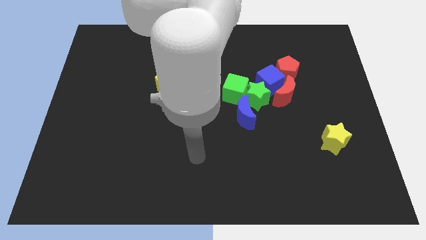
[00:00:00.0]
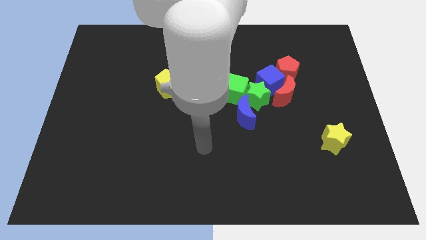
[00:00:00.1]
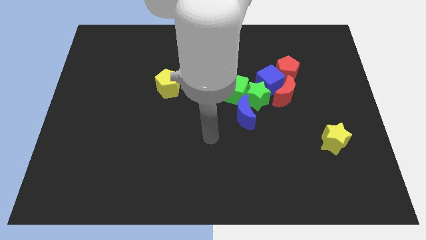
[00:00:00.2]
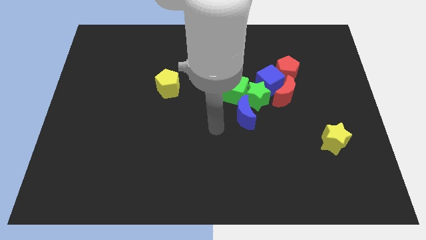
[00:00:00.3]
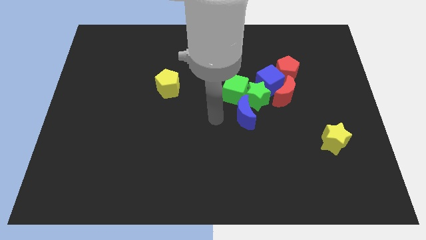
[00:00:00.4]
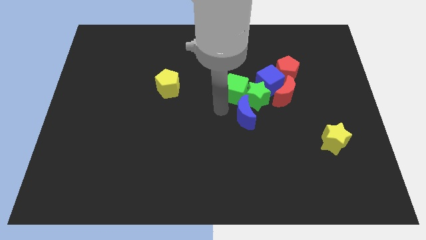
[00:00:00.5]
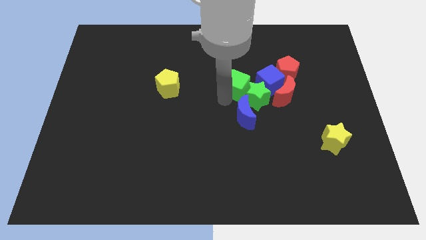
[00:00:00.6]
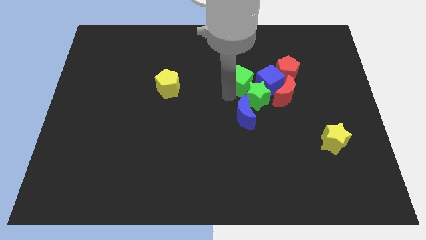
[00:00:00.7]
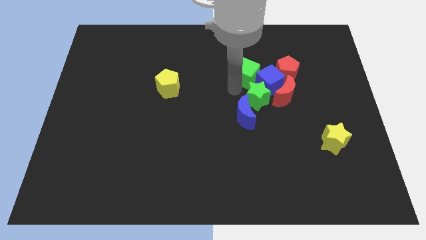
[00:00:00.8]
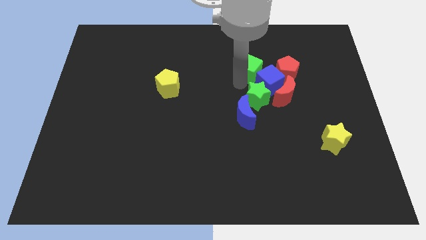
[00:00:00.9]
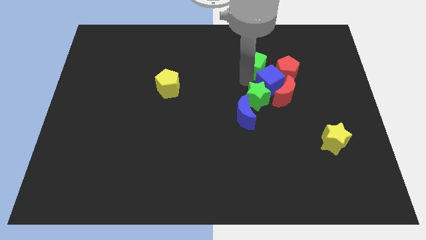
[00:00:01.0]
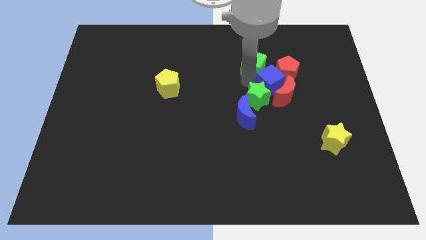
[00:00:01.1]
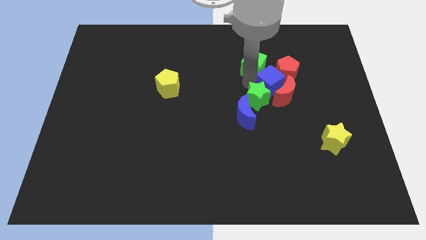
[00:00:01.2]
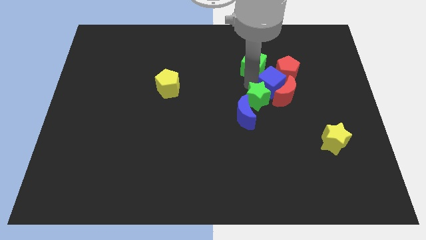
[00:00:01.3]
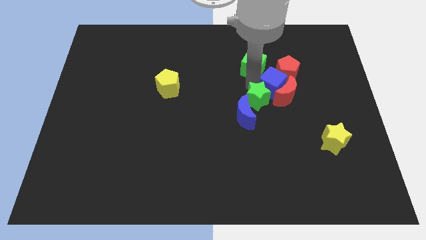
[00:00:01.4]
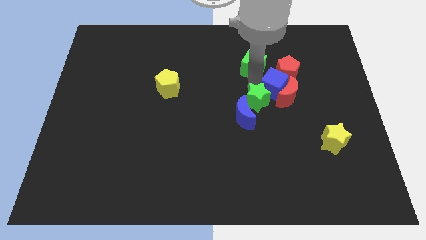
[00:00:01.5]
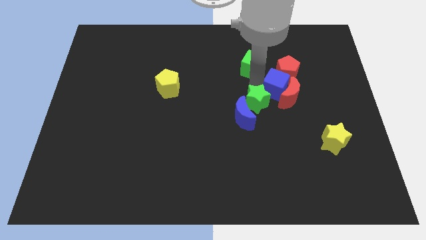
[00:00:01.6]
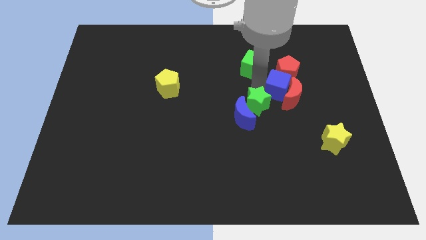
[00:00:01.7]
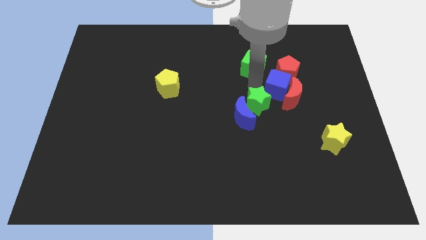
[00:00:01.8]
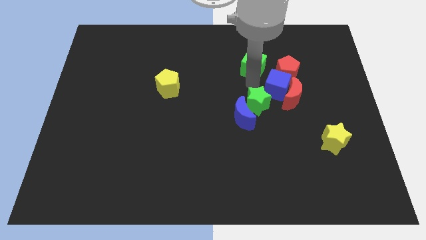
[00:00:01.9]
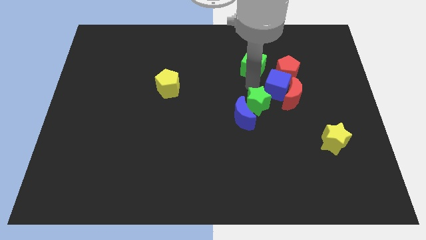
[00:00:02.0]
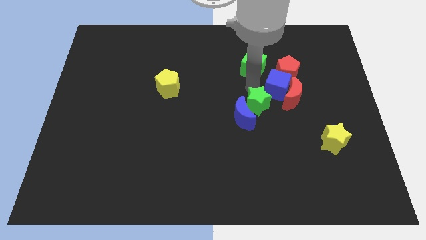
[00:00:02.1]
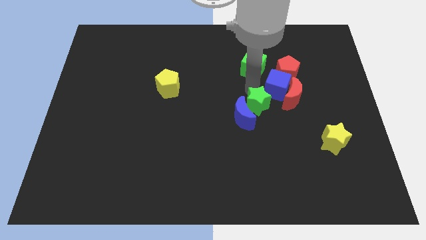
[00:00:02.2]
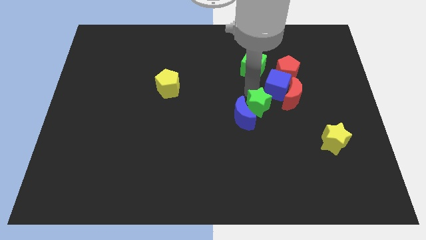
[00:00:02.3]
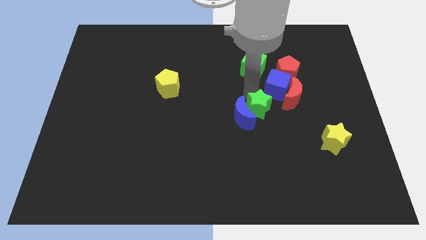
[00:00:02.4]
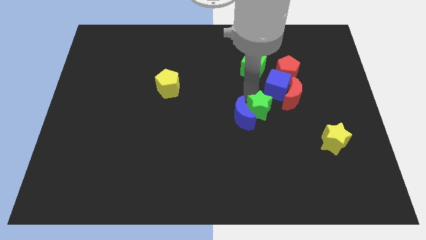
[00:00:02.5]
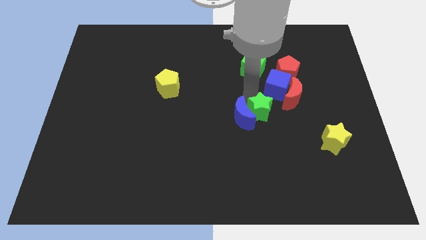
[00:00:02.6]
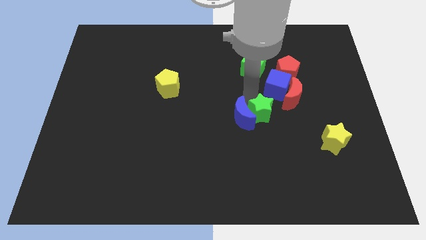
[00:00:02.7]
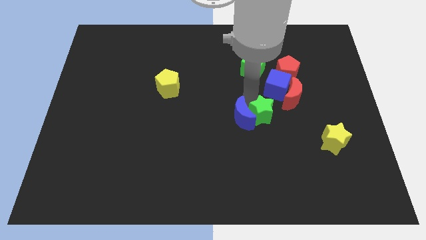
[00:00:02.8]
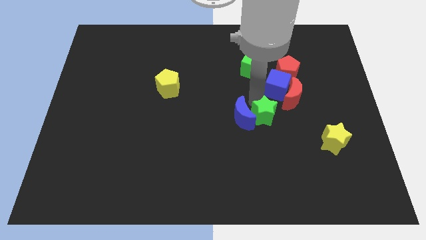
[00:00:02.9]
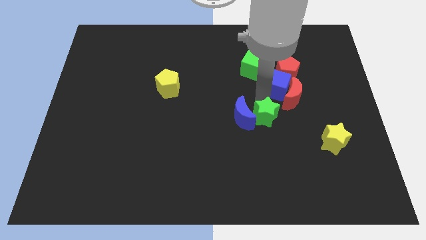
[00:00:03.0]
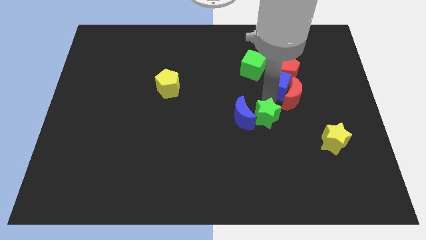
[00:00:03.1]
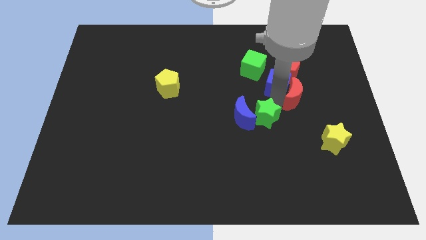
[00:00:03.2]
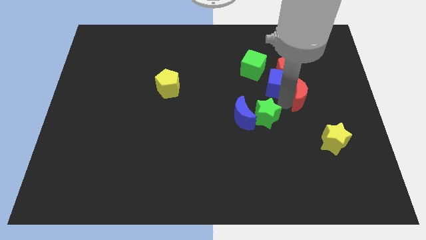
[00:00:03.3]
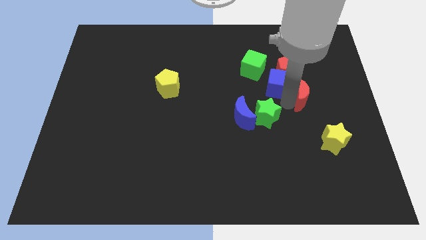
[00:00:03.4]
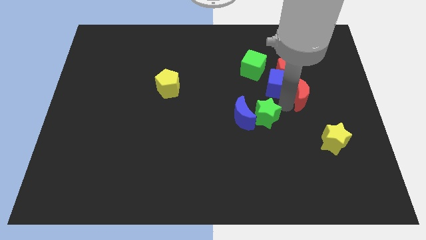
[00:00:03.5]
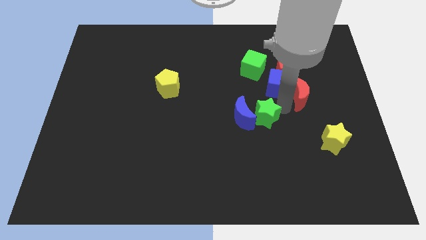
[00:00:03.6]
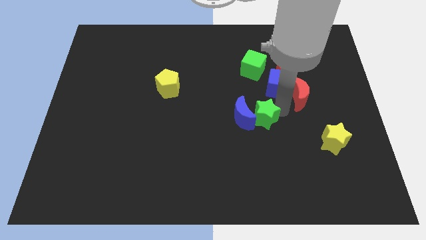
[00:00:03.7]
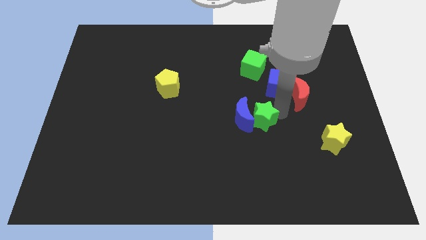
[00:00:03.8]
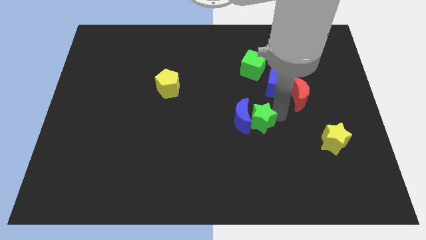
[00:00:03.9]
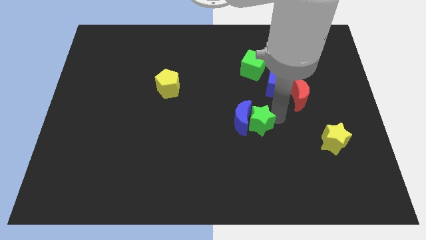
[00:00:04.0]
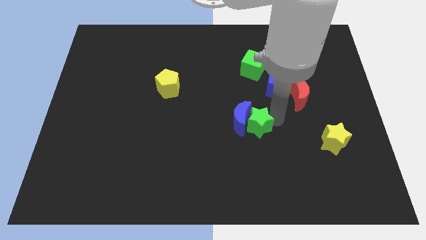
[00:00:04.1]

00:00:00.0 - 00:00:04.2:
move the green star away from the group

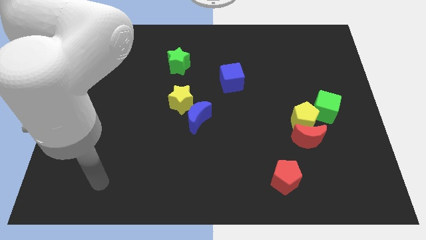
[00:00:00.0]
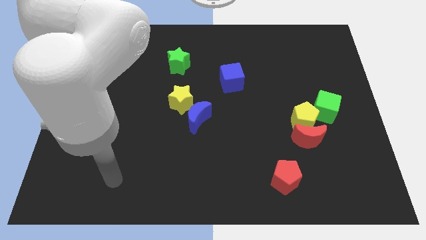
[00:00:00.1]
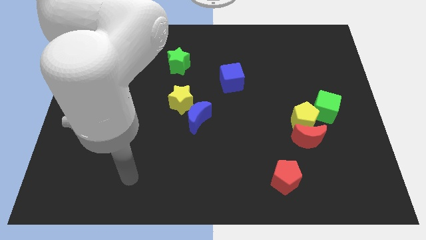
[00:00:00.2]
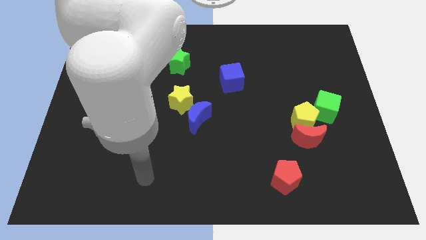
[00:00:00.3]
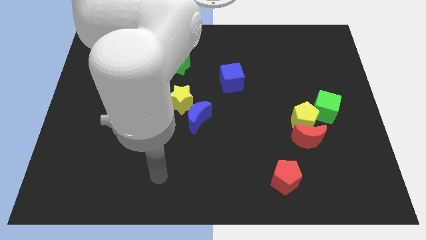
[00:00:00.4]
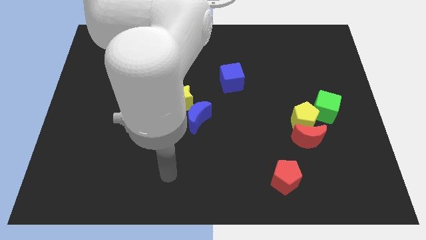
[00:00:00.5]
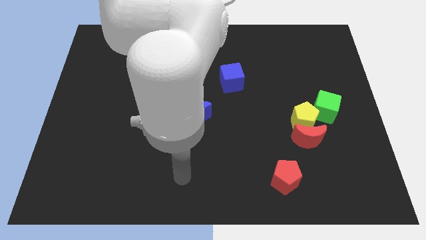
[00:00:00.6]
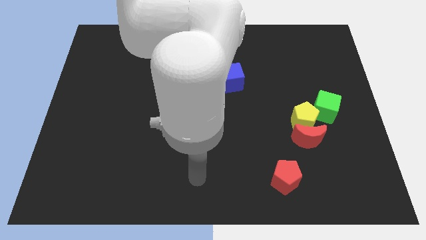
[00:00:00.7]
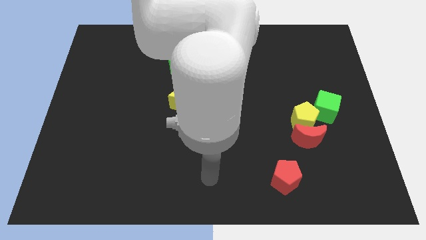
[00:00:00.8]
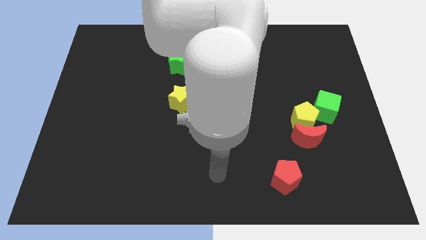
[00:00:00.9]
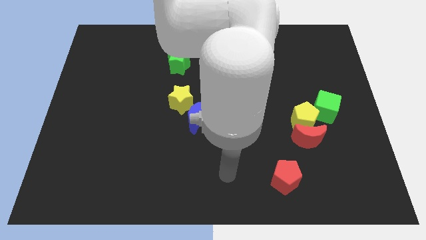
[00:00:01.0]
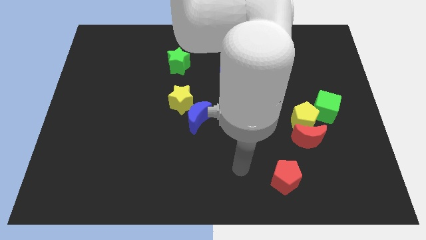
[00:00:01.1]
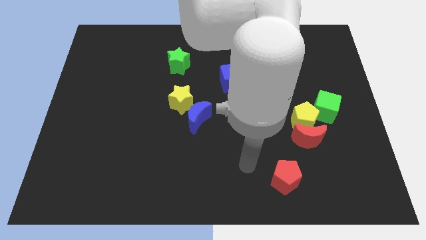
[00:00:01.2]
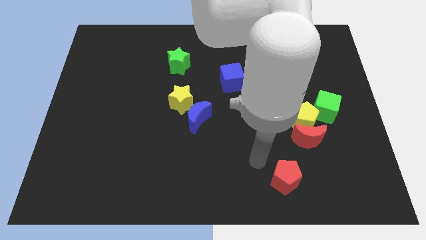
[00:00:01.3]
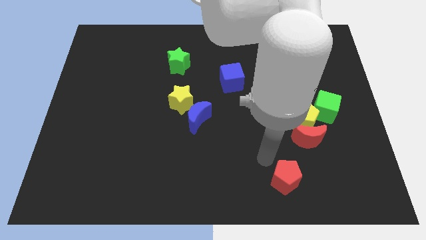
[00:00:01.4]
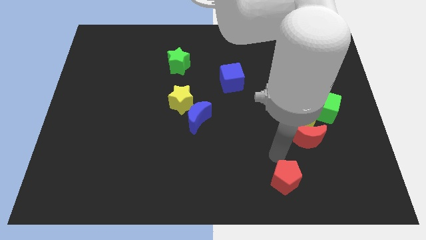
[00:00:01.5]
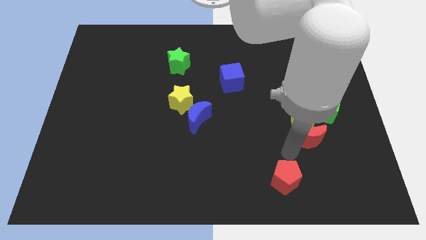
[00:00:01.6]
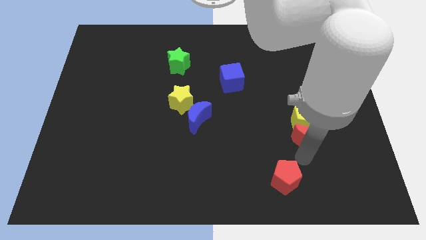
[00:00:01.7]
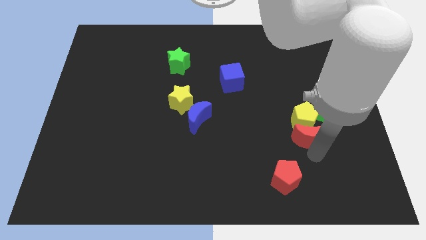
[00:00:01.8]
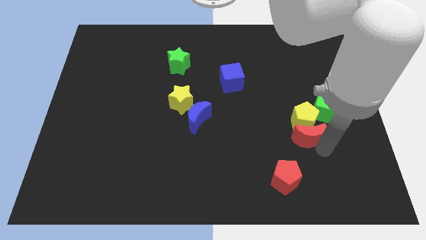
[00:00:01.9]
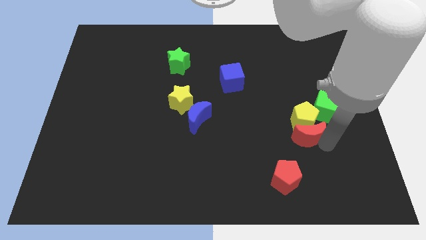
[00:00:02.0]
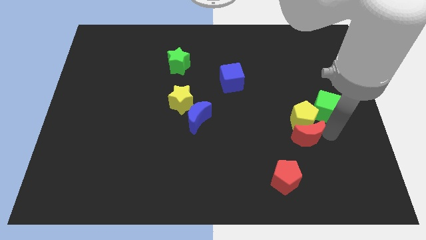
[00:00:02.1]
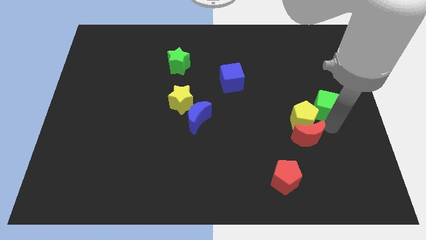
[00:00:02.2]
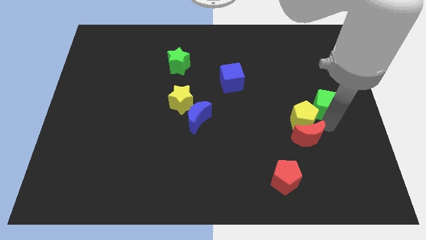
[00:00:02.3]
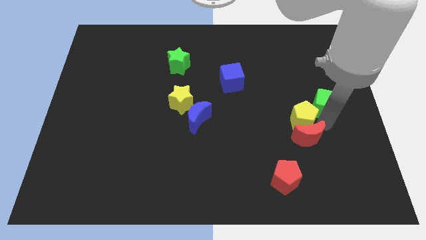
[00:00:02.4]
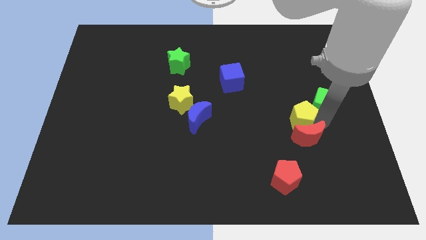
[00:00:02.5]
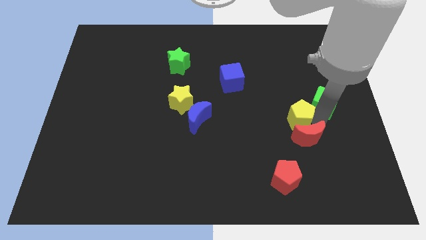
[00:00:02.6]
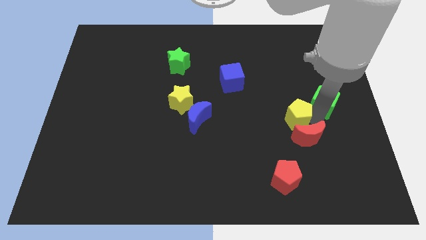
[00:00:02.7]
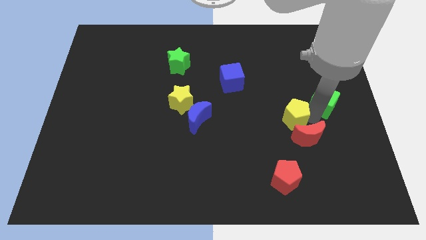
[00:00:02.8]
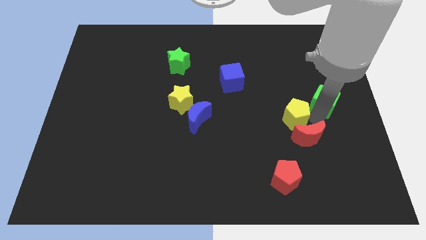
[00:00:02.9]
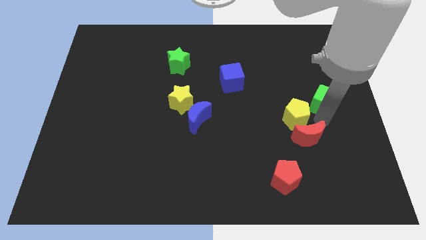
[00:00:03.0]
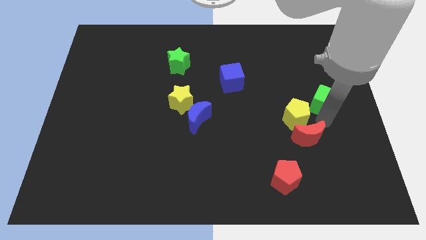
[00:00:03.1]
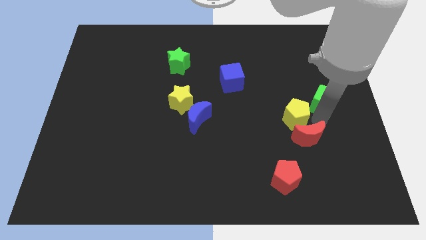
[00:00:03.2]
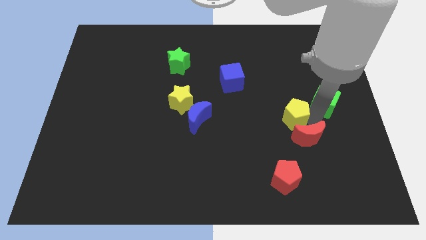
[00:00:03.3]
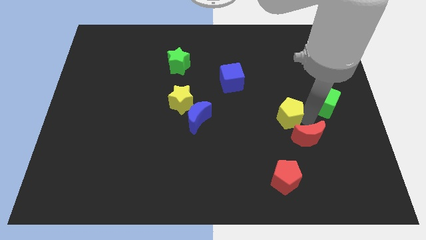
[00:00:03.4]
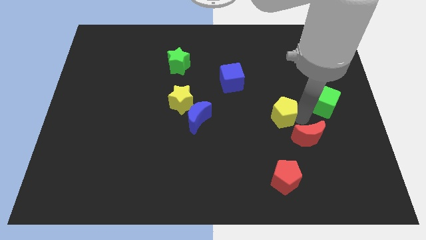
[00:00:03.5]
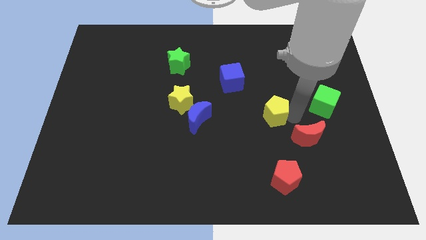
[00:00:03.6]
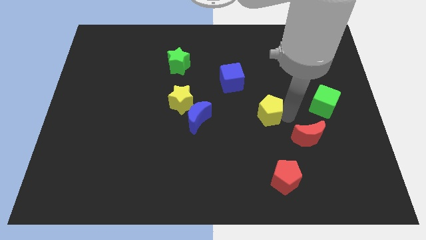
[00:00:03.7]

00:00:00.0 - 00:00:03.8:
pull the yellow pentagon apart from the red moon and green cube

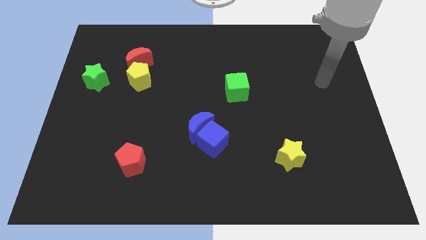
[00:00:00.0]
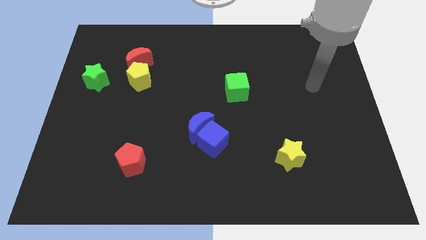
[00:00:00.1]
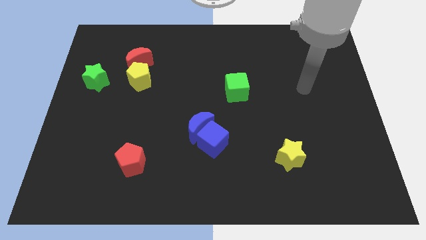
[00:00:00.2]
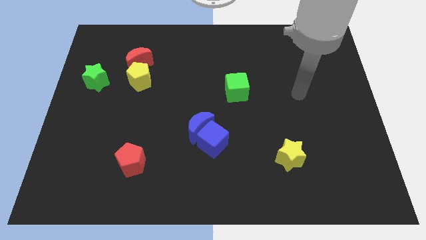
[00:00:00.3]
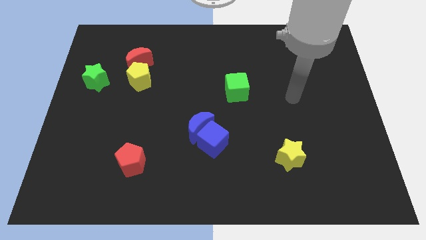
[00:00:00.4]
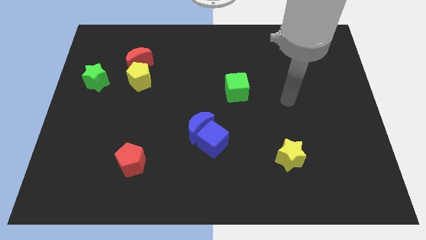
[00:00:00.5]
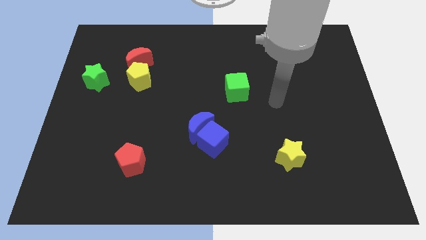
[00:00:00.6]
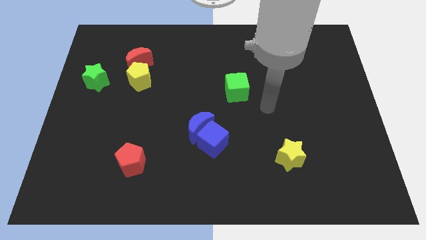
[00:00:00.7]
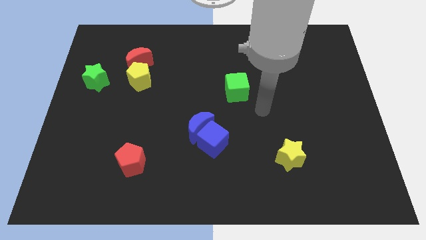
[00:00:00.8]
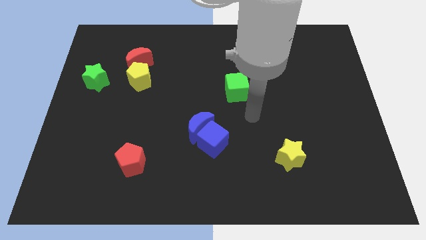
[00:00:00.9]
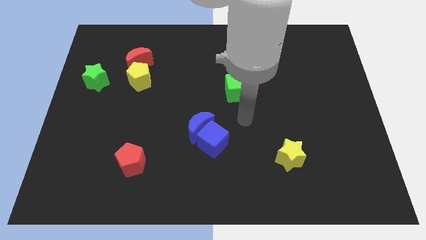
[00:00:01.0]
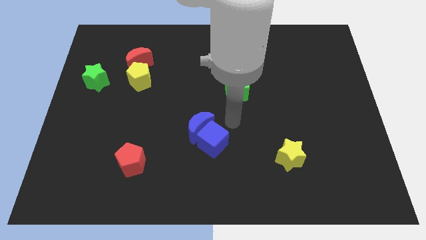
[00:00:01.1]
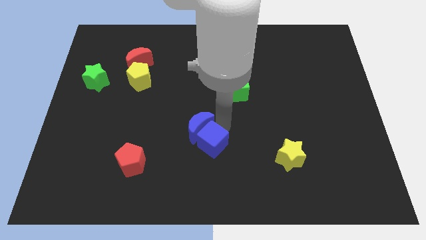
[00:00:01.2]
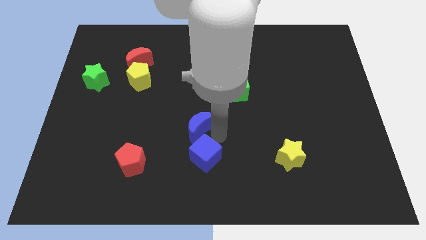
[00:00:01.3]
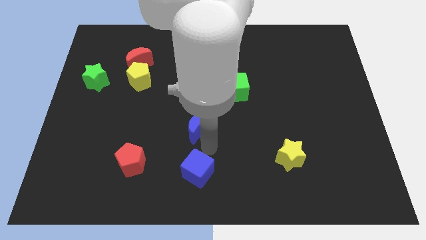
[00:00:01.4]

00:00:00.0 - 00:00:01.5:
move the blue moon away from the blue cube
